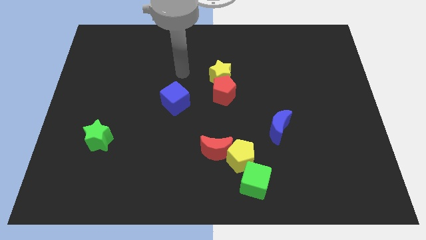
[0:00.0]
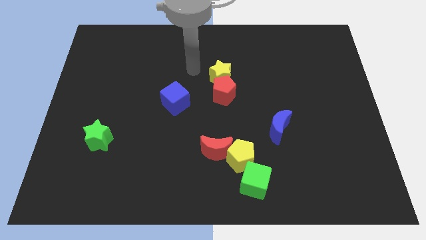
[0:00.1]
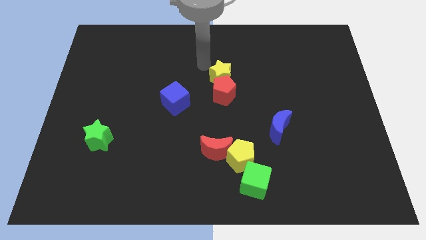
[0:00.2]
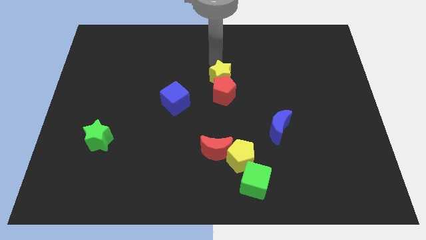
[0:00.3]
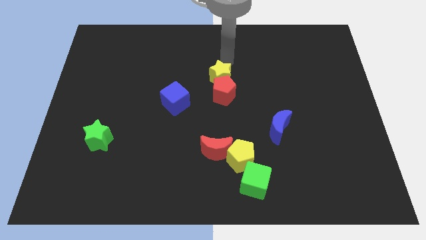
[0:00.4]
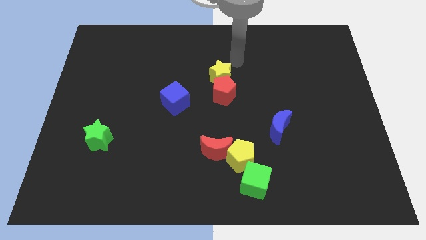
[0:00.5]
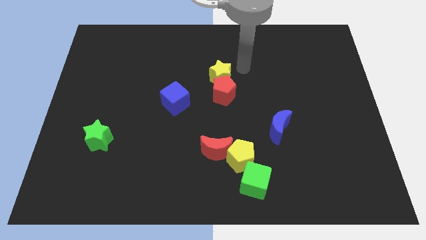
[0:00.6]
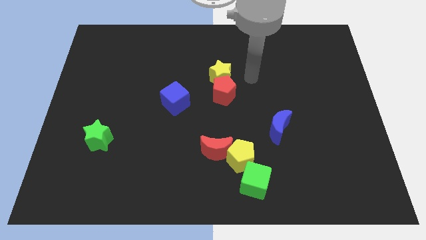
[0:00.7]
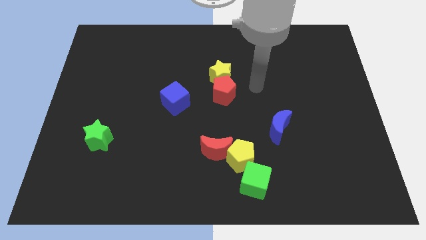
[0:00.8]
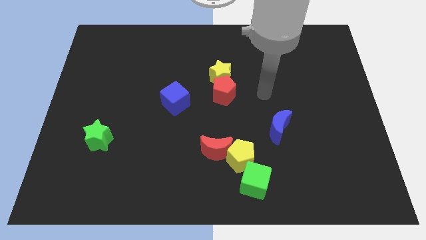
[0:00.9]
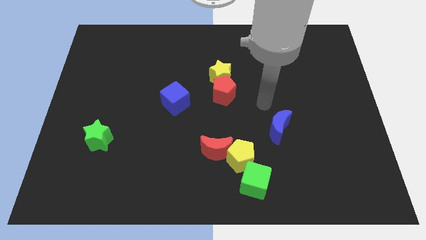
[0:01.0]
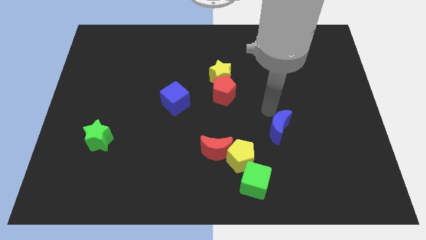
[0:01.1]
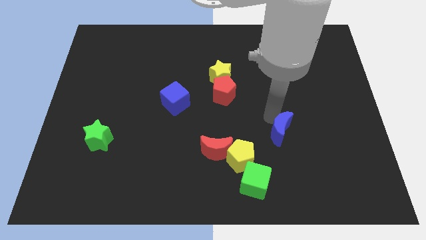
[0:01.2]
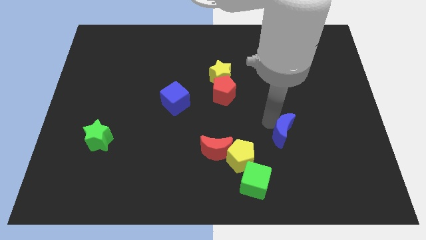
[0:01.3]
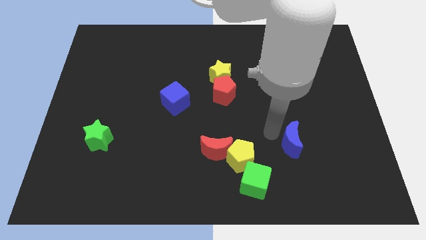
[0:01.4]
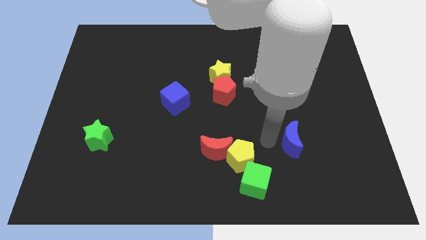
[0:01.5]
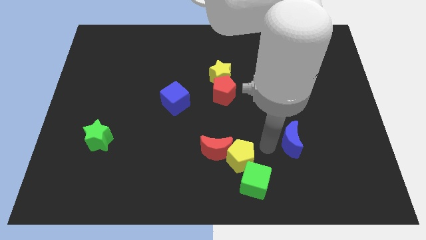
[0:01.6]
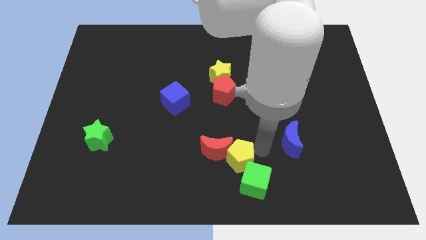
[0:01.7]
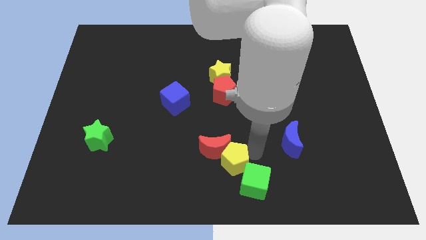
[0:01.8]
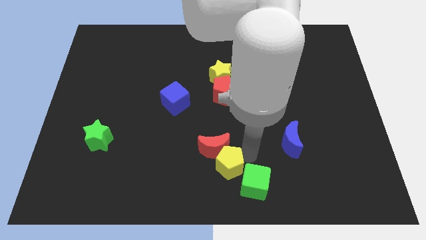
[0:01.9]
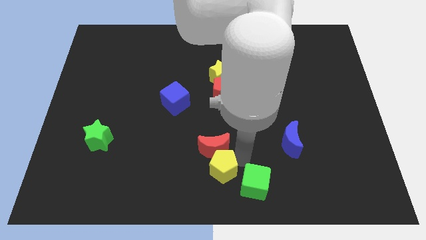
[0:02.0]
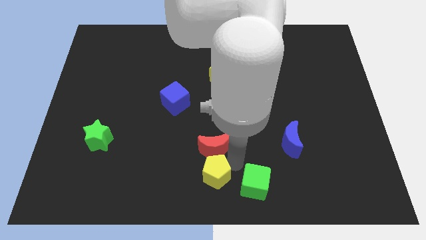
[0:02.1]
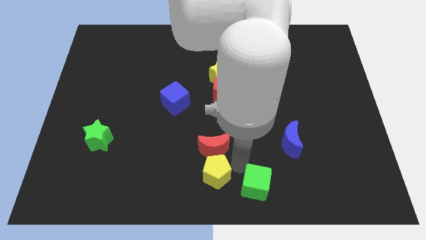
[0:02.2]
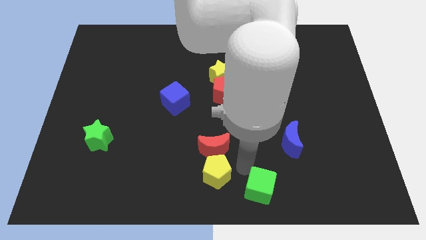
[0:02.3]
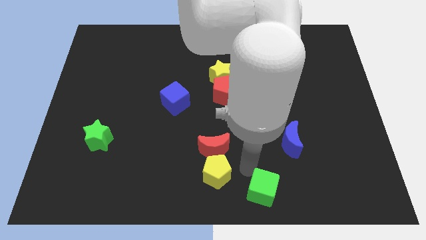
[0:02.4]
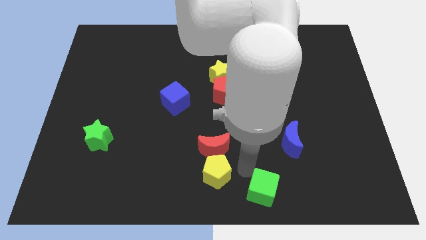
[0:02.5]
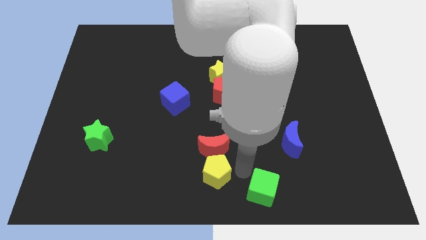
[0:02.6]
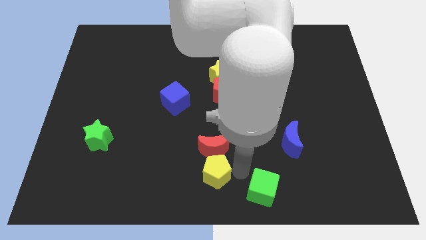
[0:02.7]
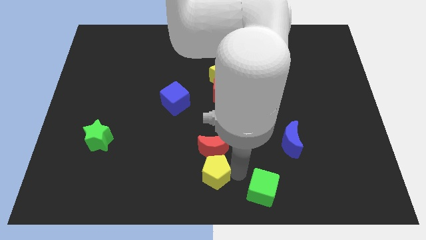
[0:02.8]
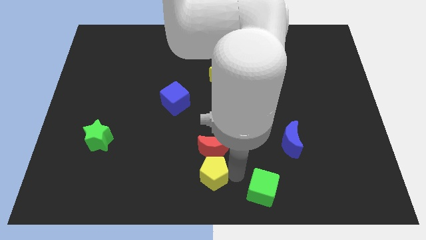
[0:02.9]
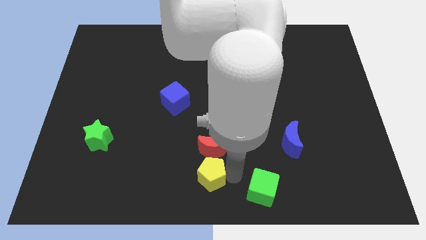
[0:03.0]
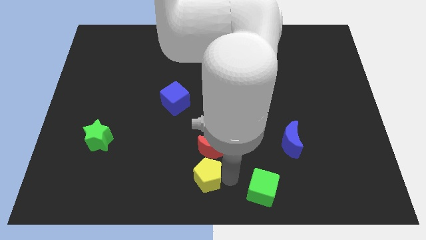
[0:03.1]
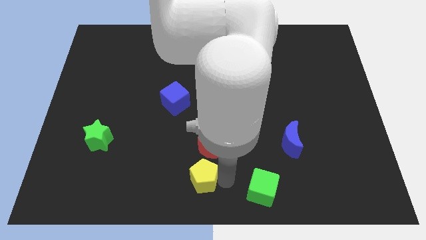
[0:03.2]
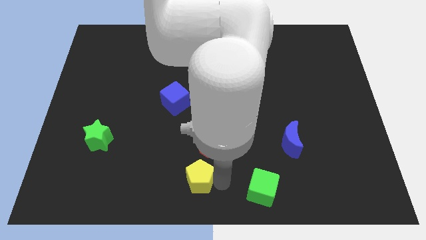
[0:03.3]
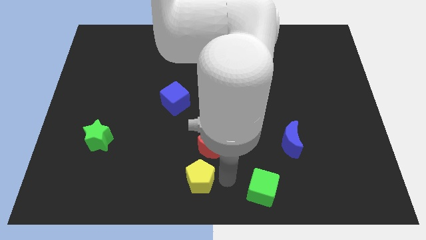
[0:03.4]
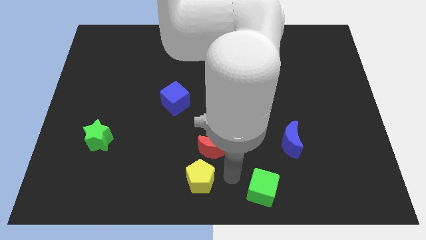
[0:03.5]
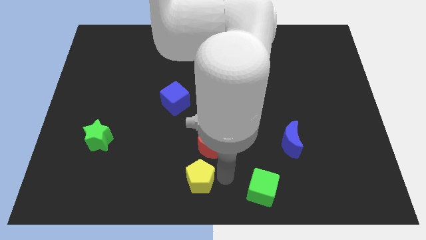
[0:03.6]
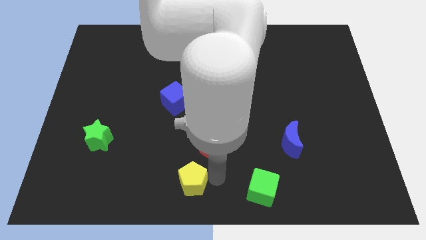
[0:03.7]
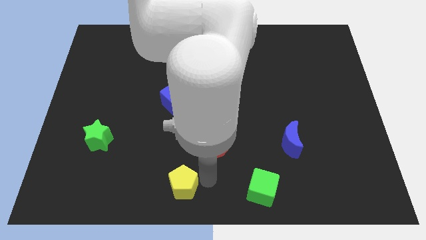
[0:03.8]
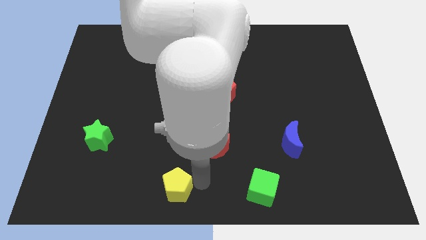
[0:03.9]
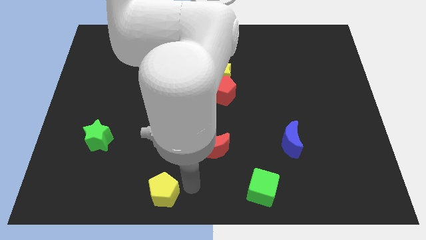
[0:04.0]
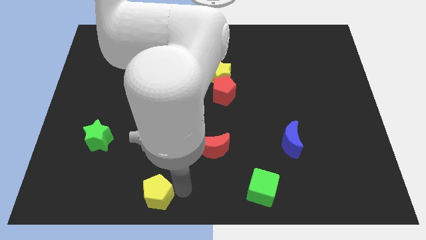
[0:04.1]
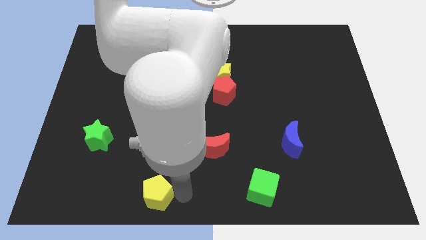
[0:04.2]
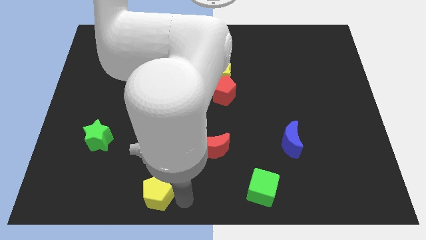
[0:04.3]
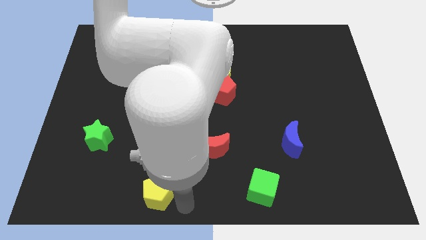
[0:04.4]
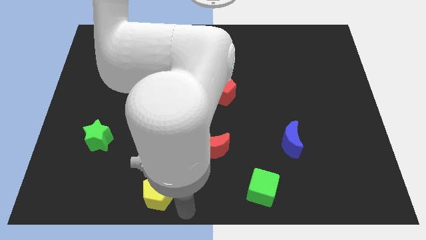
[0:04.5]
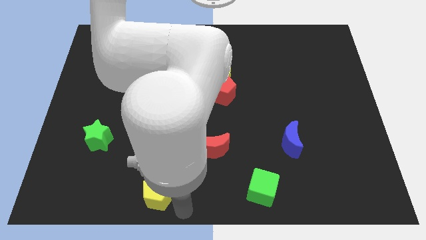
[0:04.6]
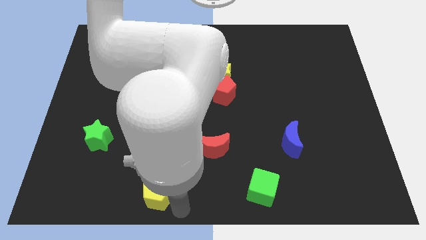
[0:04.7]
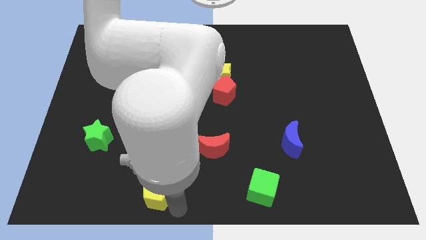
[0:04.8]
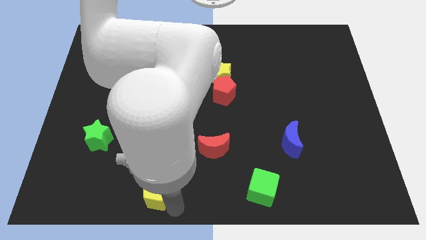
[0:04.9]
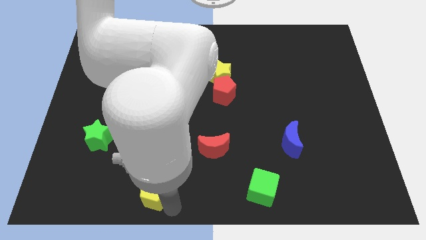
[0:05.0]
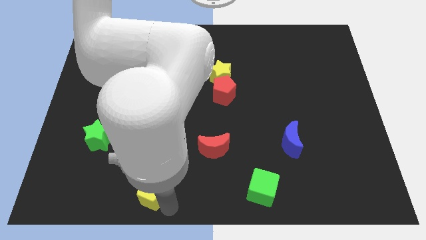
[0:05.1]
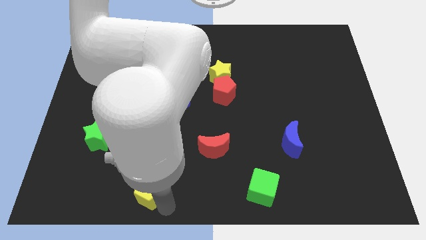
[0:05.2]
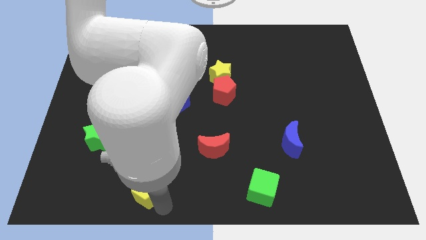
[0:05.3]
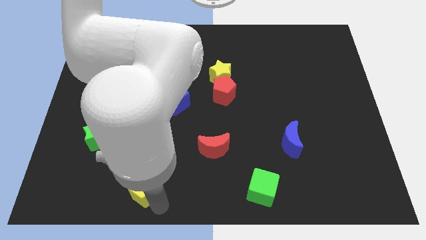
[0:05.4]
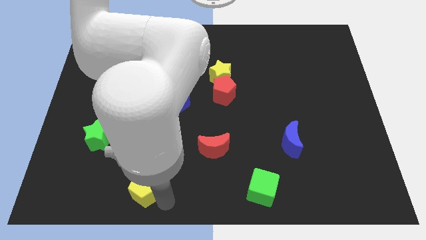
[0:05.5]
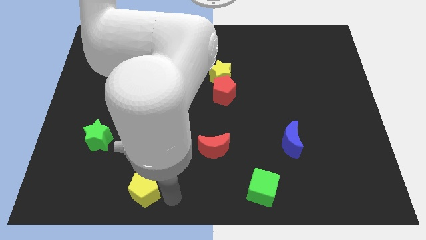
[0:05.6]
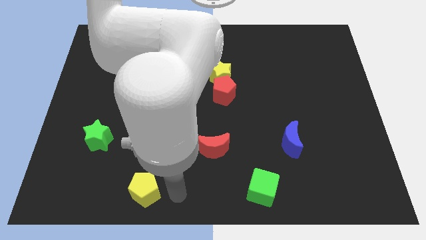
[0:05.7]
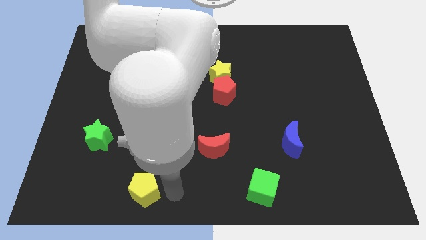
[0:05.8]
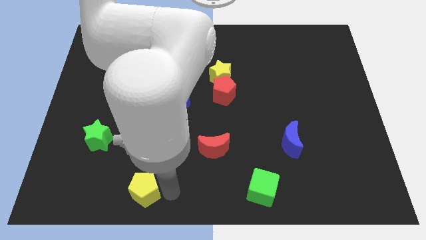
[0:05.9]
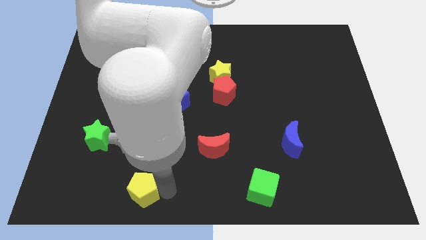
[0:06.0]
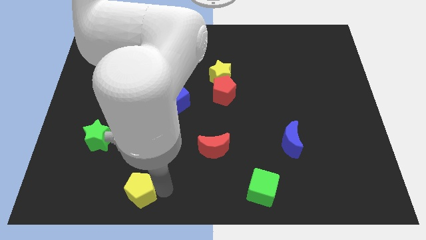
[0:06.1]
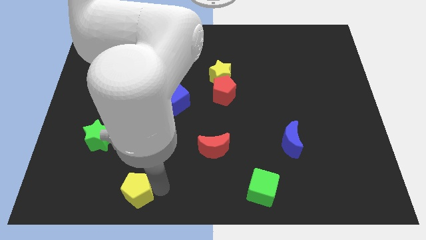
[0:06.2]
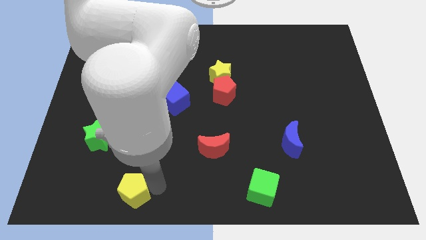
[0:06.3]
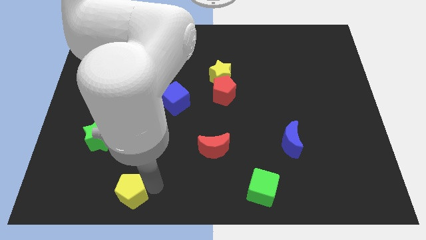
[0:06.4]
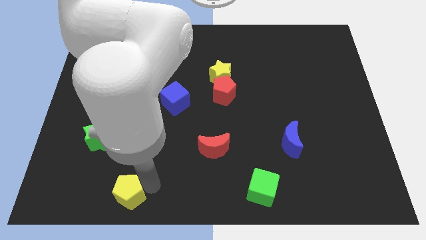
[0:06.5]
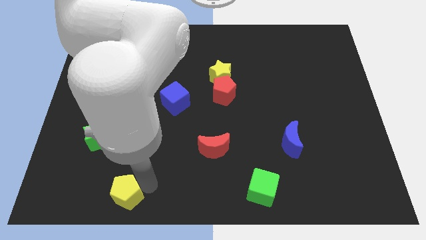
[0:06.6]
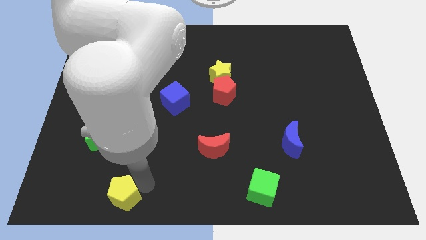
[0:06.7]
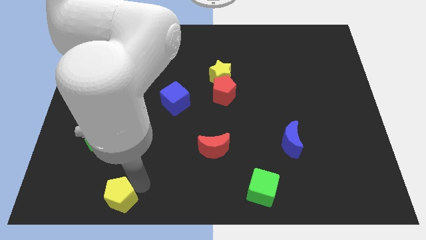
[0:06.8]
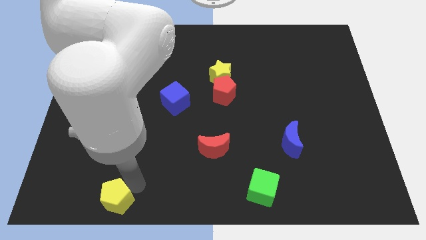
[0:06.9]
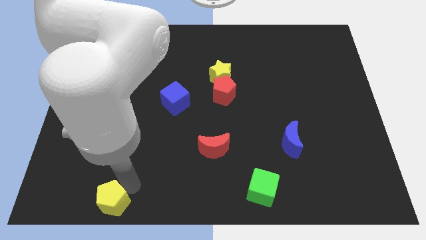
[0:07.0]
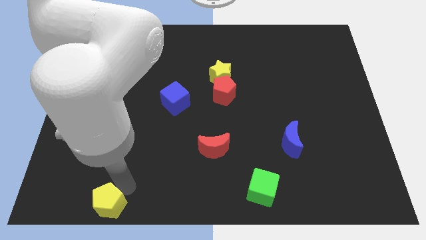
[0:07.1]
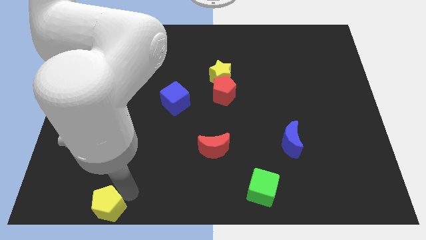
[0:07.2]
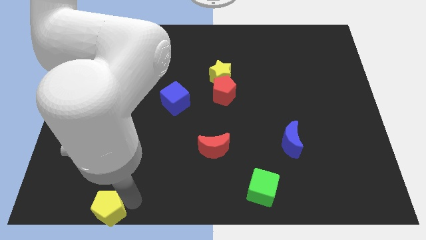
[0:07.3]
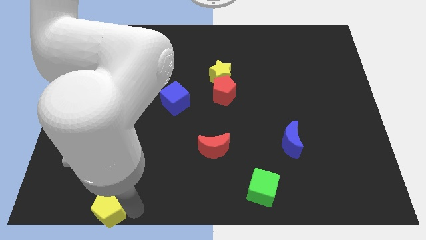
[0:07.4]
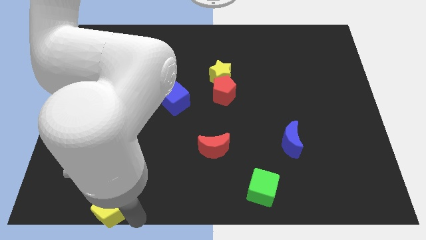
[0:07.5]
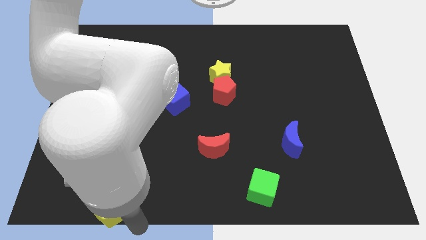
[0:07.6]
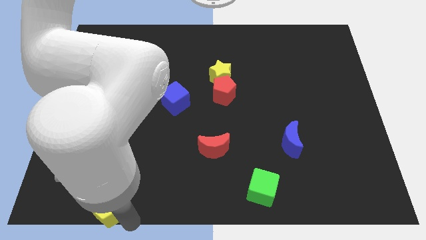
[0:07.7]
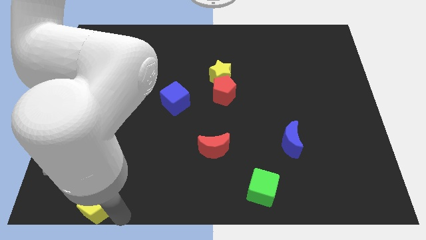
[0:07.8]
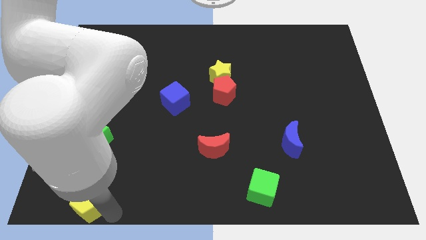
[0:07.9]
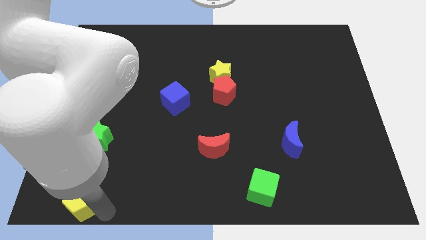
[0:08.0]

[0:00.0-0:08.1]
move the yellow pentagon to the bottom left of the board
